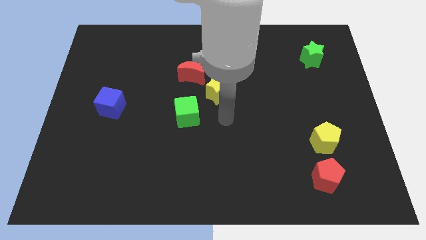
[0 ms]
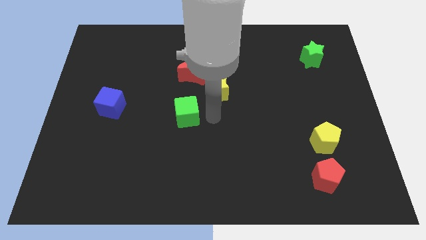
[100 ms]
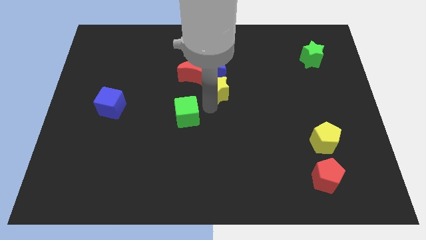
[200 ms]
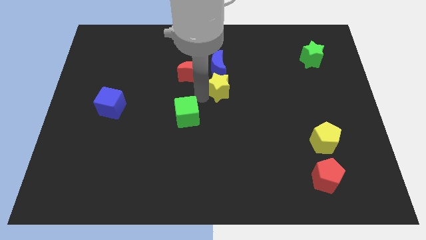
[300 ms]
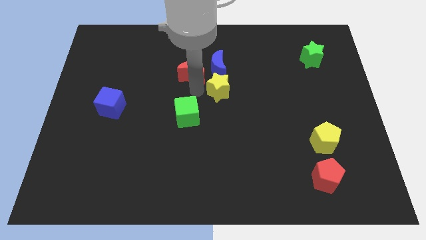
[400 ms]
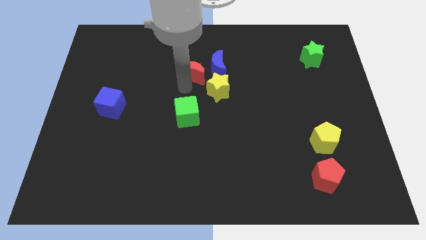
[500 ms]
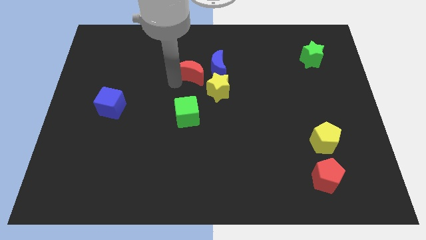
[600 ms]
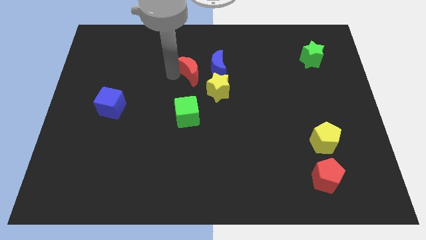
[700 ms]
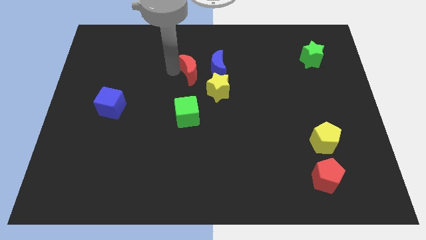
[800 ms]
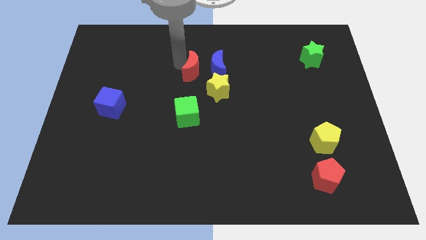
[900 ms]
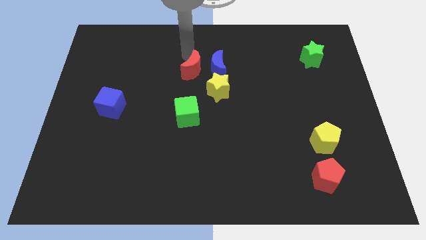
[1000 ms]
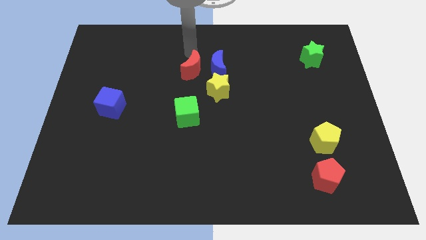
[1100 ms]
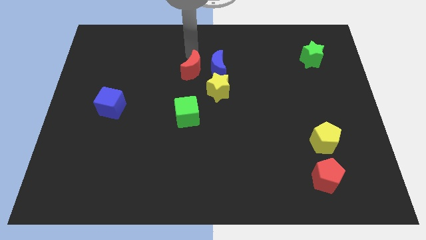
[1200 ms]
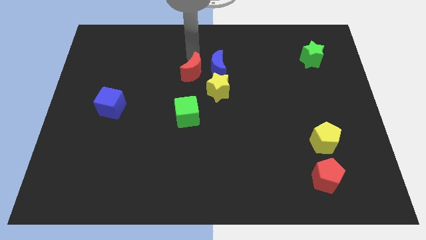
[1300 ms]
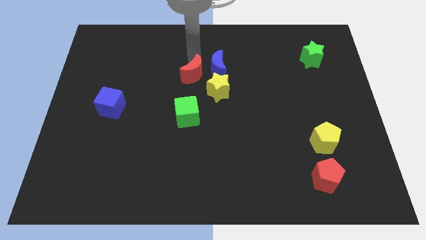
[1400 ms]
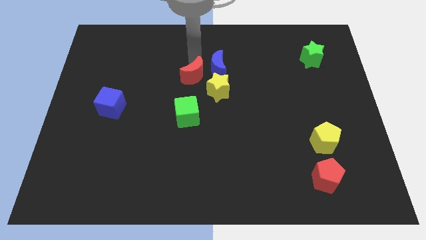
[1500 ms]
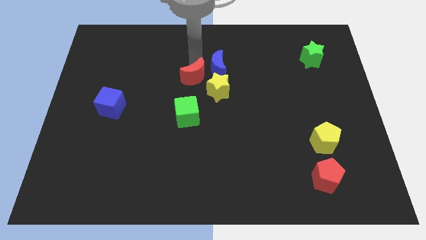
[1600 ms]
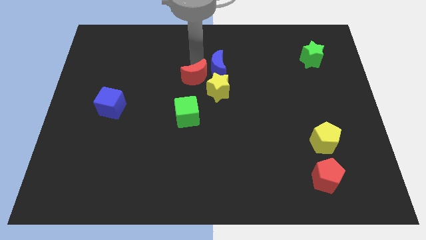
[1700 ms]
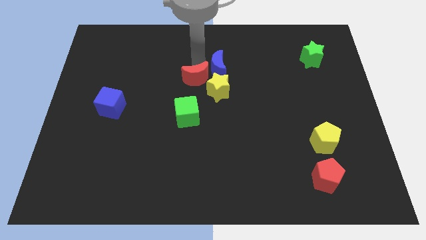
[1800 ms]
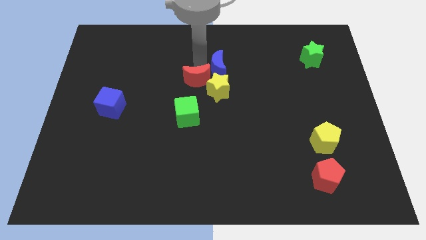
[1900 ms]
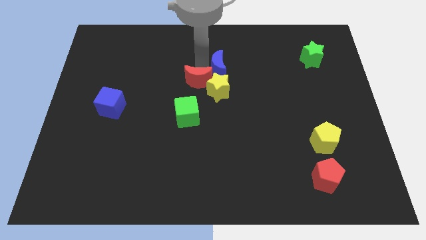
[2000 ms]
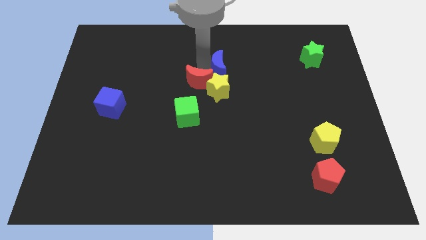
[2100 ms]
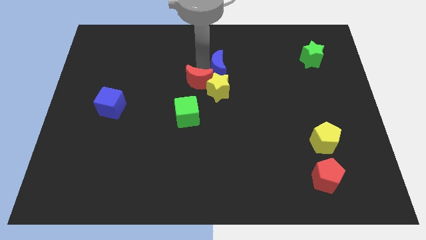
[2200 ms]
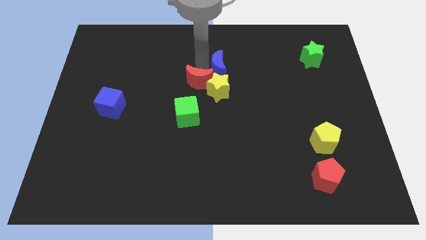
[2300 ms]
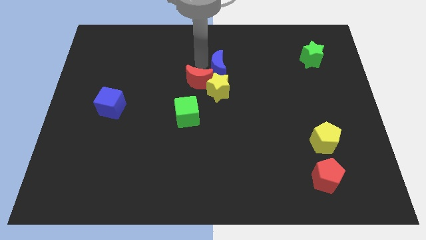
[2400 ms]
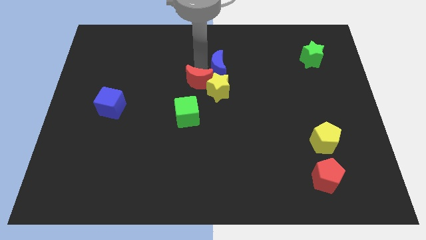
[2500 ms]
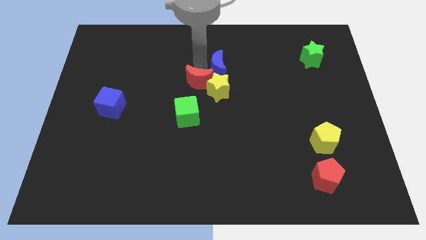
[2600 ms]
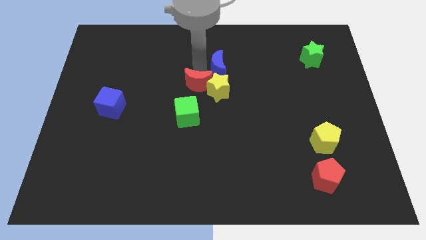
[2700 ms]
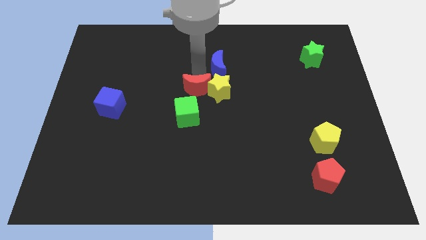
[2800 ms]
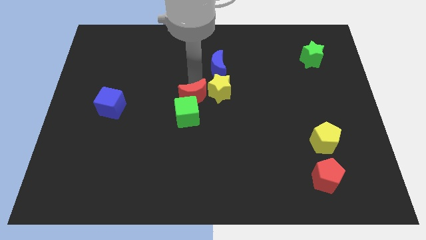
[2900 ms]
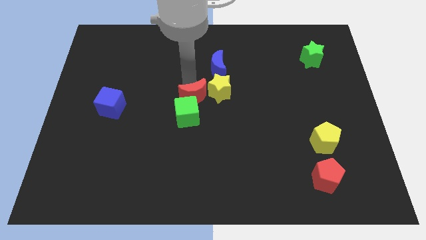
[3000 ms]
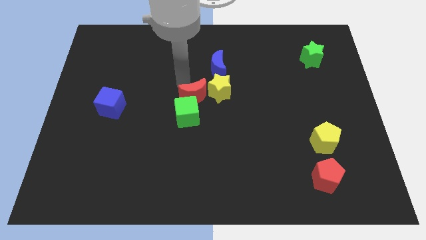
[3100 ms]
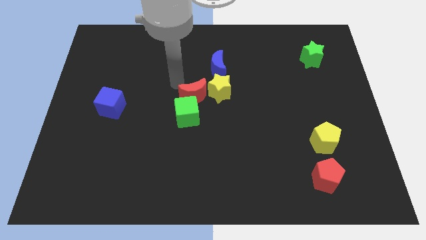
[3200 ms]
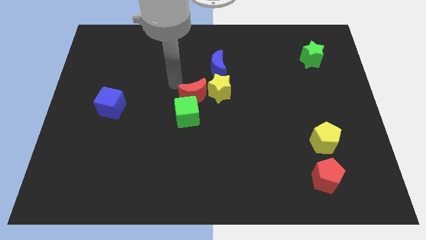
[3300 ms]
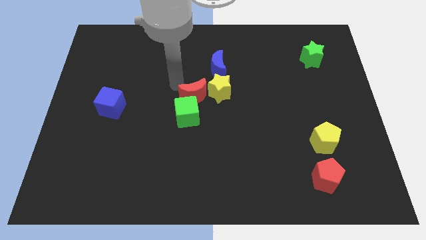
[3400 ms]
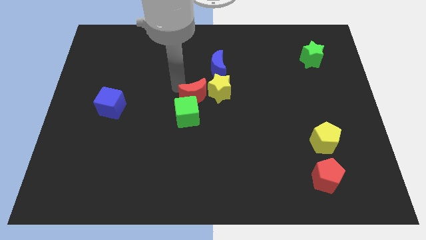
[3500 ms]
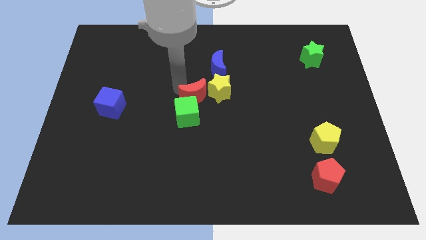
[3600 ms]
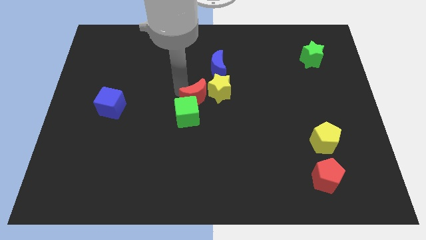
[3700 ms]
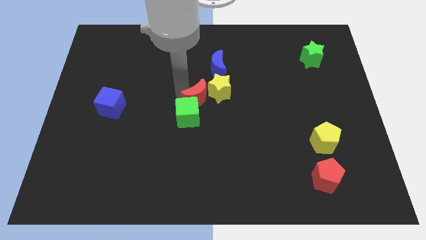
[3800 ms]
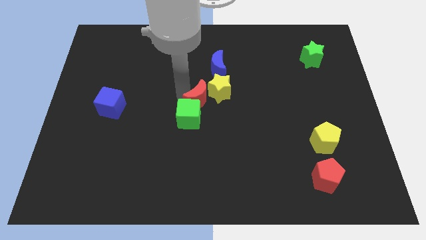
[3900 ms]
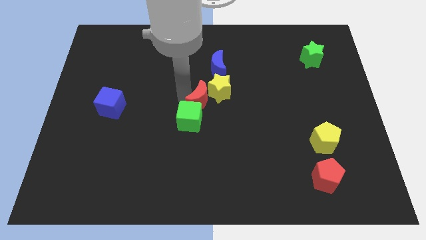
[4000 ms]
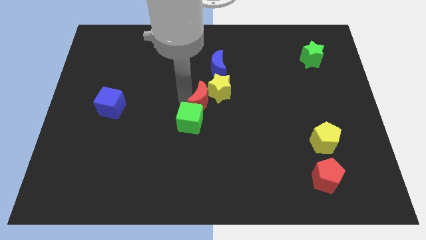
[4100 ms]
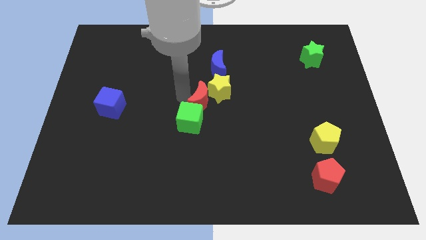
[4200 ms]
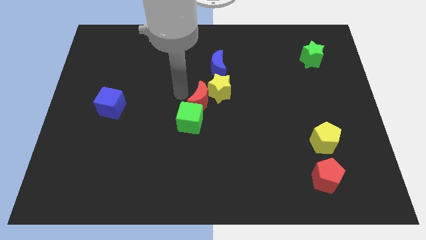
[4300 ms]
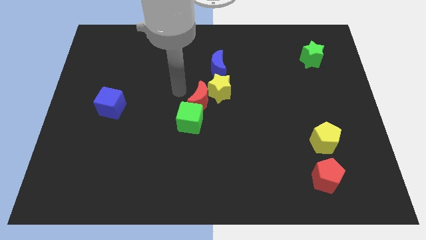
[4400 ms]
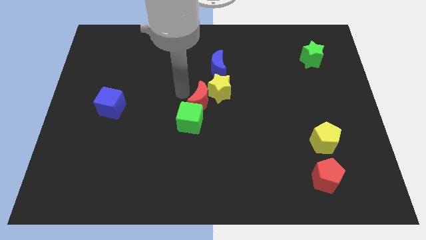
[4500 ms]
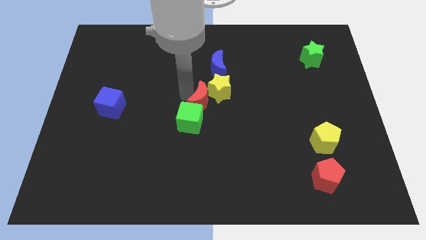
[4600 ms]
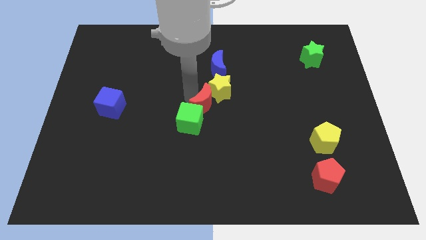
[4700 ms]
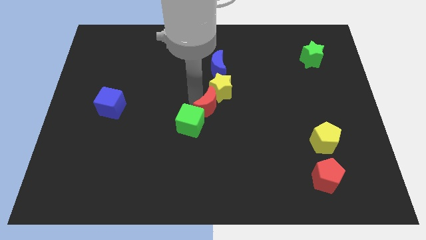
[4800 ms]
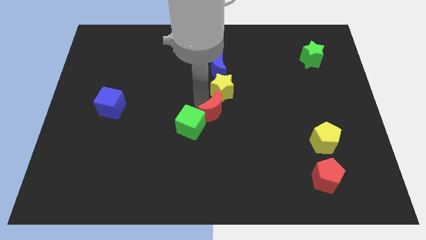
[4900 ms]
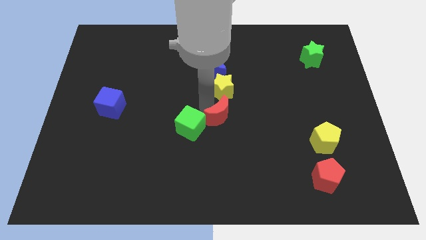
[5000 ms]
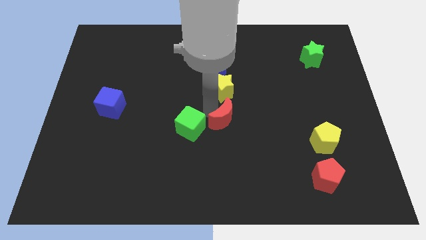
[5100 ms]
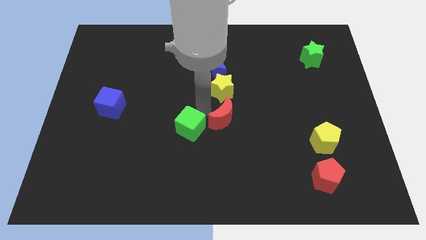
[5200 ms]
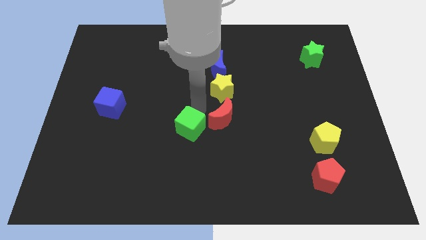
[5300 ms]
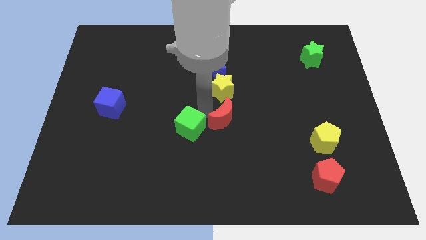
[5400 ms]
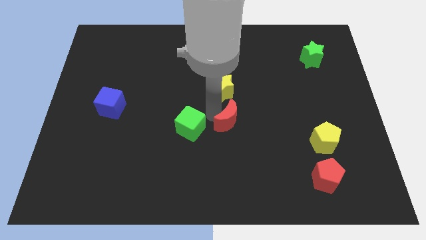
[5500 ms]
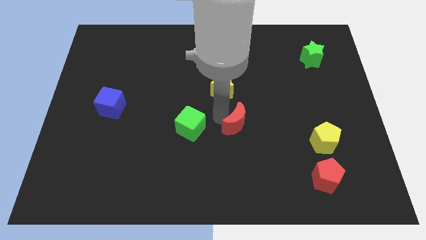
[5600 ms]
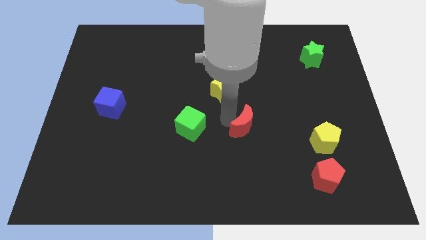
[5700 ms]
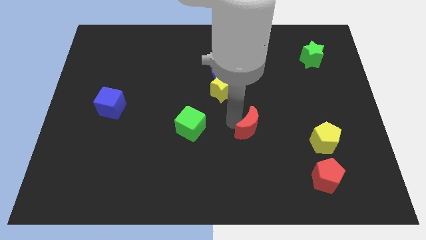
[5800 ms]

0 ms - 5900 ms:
slide the red moon down and right diagonally

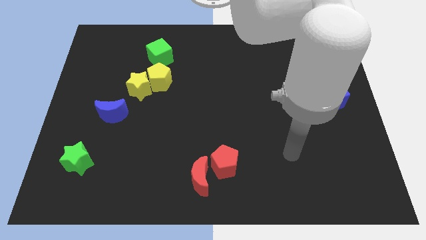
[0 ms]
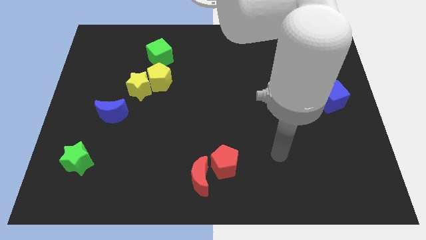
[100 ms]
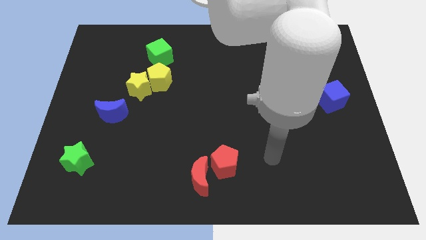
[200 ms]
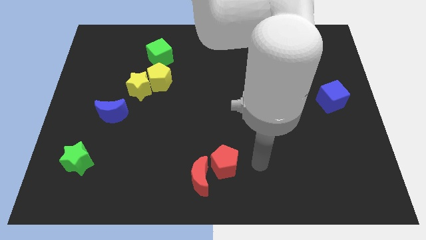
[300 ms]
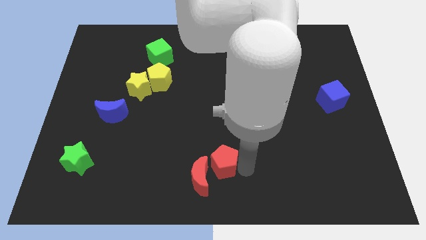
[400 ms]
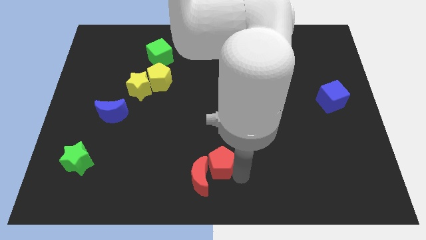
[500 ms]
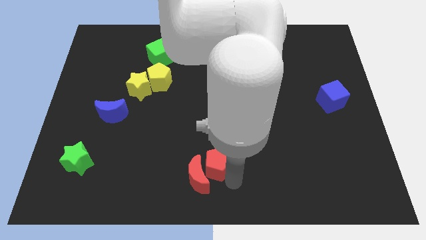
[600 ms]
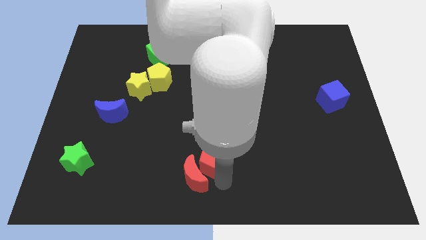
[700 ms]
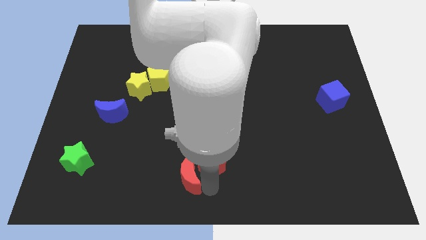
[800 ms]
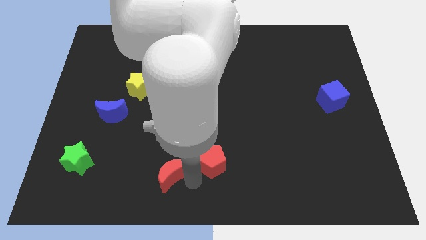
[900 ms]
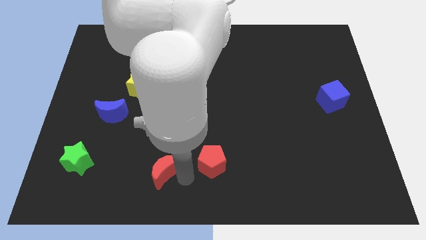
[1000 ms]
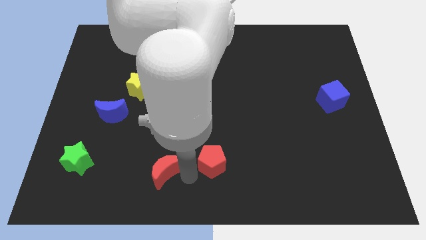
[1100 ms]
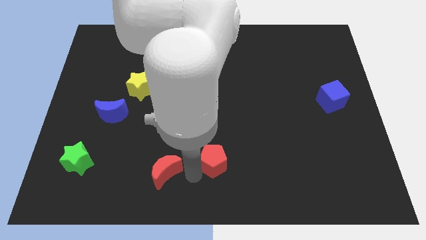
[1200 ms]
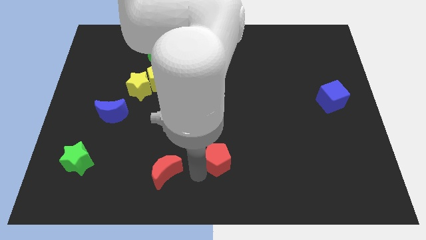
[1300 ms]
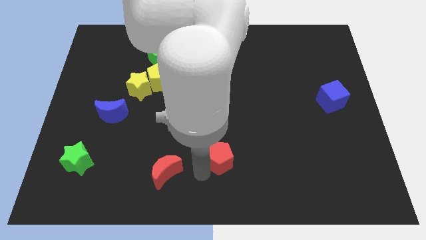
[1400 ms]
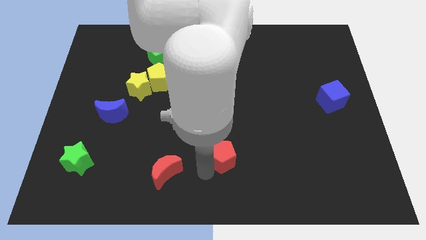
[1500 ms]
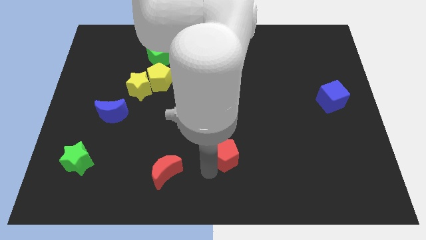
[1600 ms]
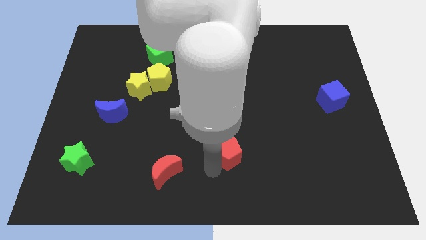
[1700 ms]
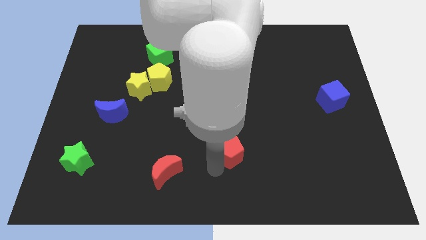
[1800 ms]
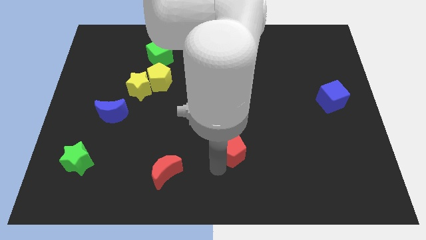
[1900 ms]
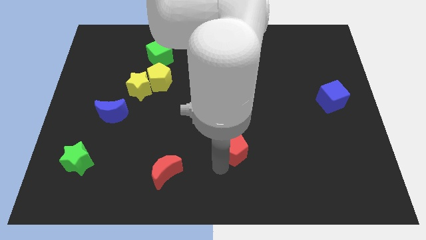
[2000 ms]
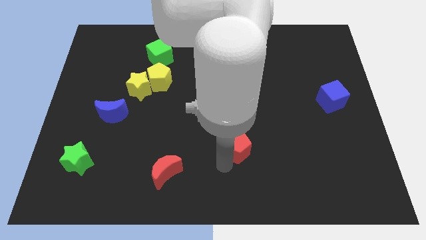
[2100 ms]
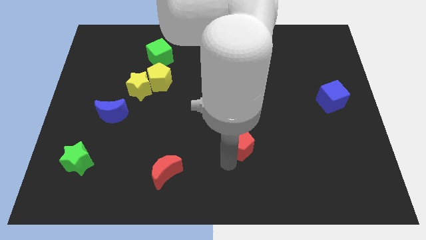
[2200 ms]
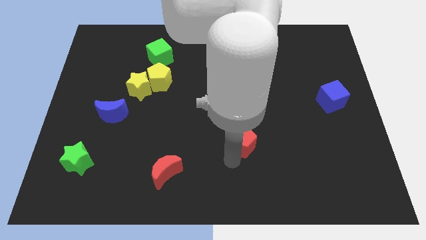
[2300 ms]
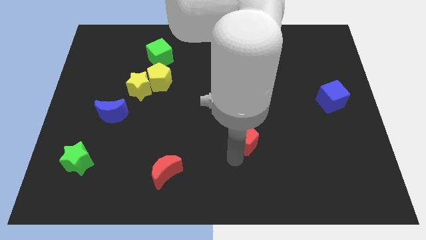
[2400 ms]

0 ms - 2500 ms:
slide the red pentagon up and then right slightly
